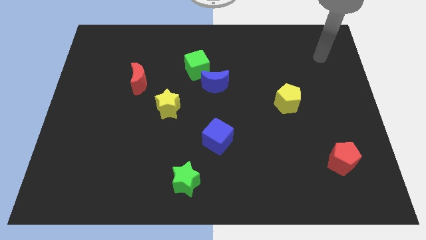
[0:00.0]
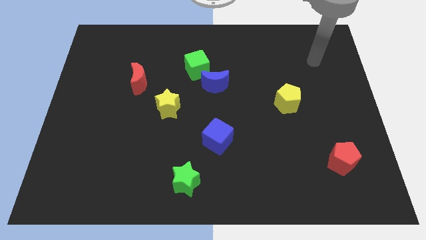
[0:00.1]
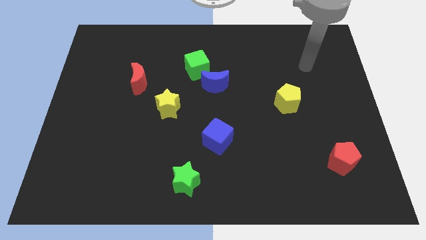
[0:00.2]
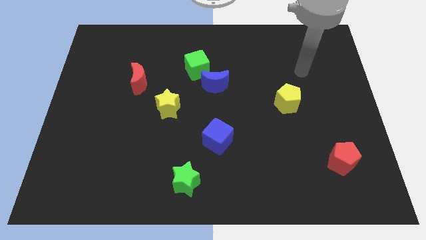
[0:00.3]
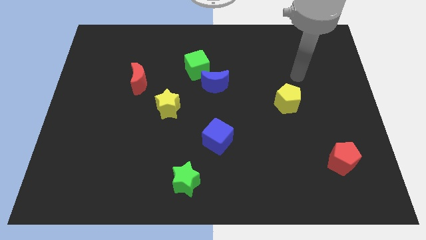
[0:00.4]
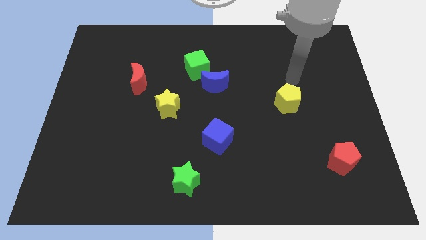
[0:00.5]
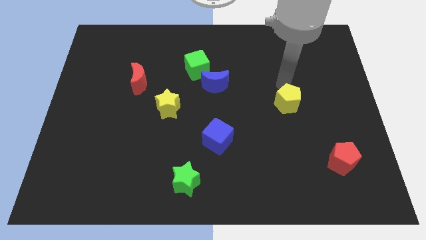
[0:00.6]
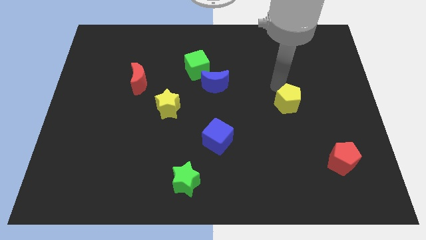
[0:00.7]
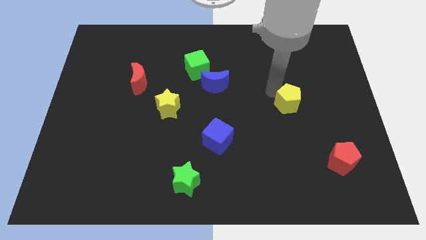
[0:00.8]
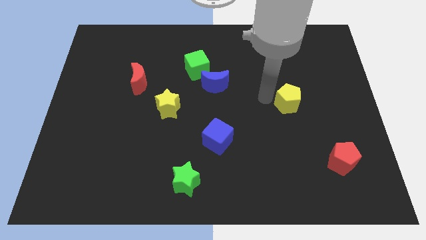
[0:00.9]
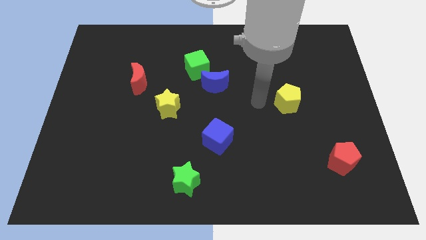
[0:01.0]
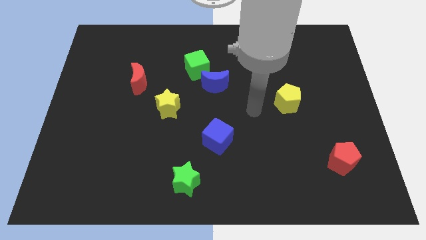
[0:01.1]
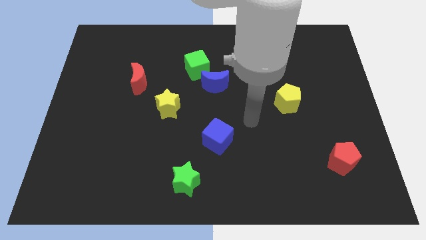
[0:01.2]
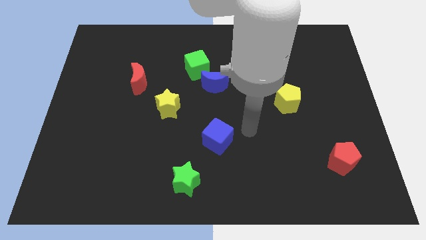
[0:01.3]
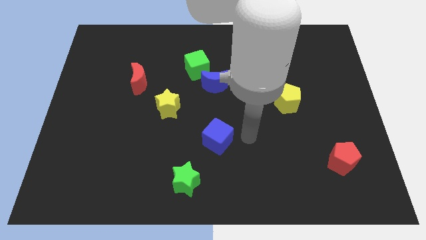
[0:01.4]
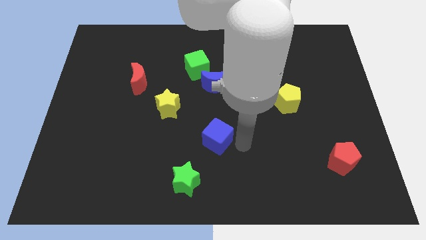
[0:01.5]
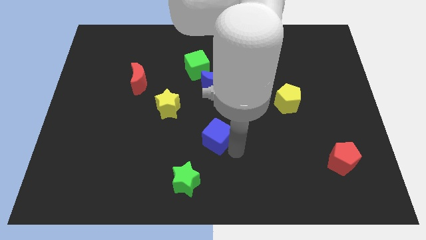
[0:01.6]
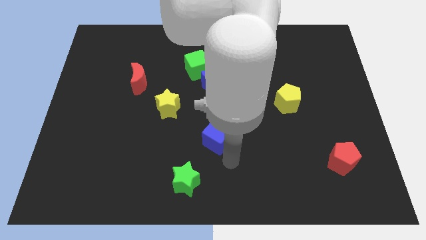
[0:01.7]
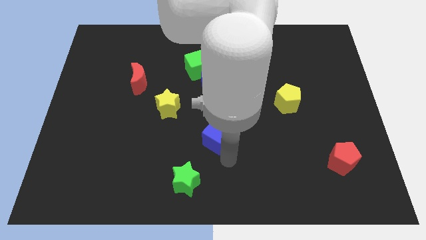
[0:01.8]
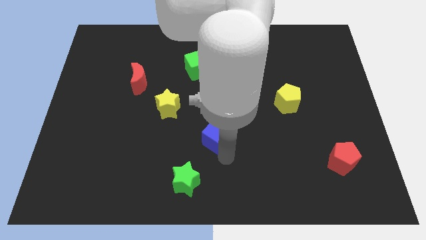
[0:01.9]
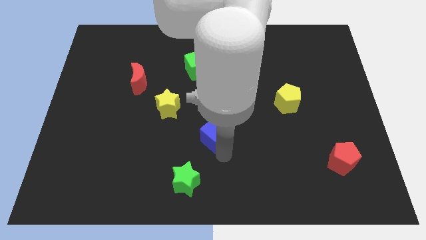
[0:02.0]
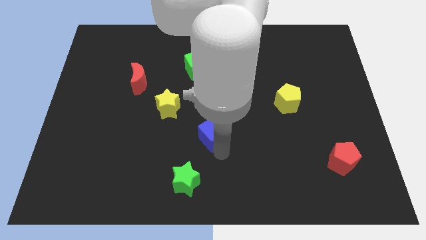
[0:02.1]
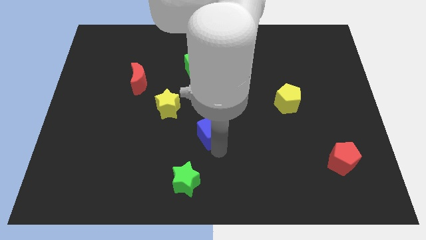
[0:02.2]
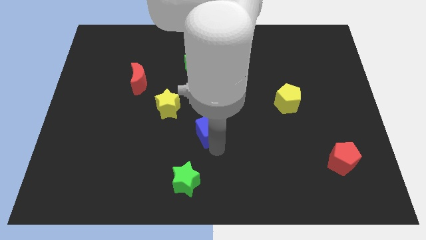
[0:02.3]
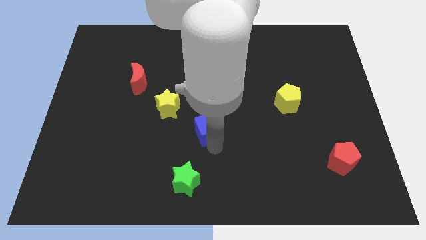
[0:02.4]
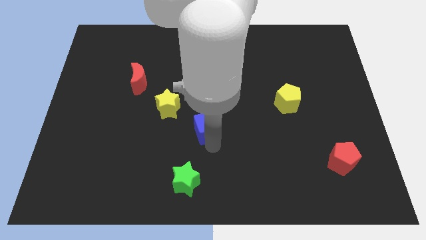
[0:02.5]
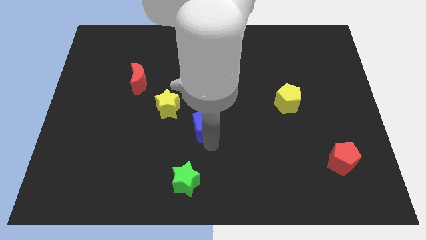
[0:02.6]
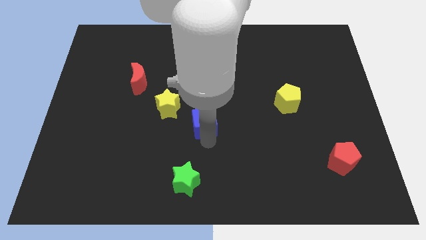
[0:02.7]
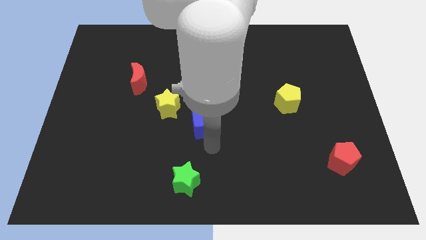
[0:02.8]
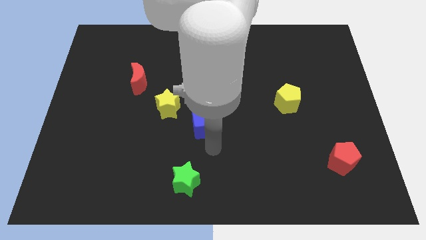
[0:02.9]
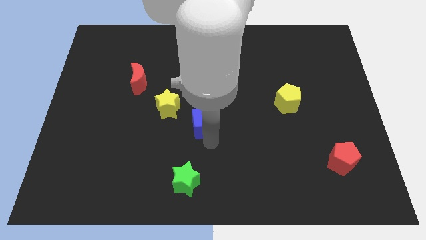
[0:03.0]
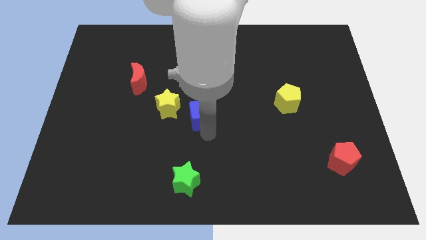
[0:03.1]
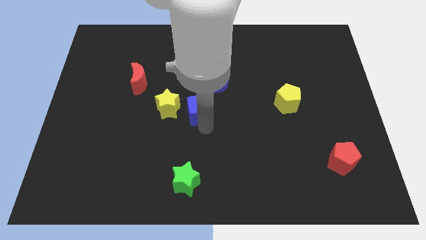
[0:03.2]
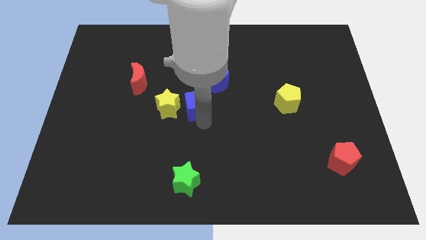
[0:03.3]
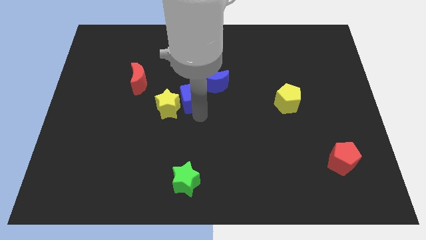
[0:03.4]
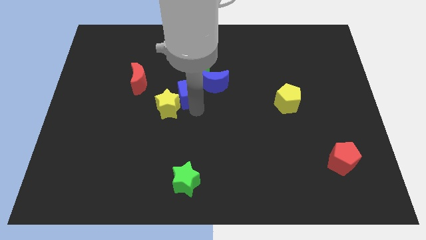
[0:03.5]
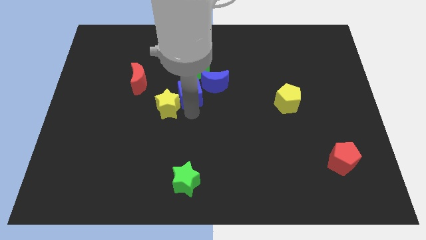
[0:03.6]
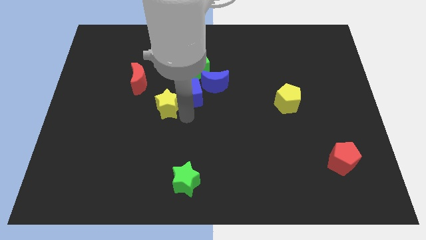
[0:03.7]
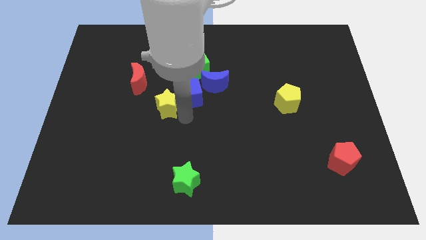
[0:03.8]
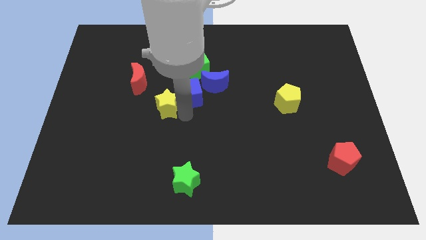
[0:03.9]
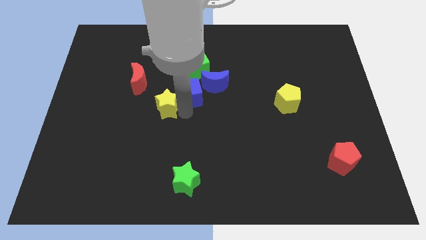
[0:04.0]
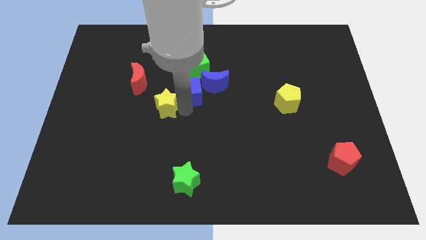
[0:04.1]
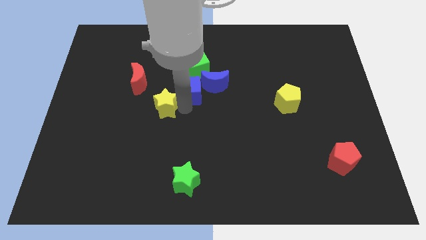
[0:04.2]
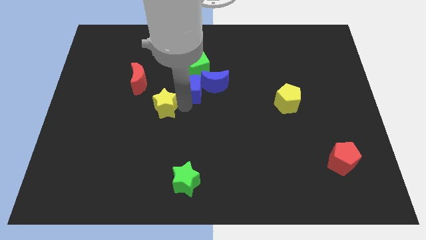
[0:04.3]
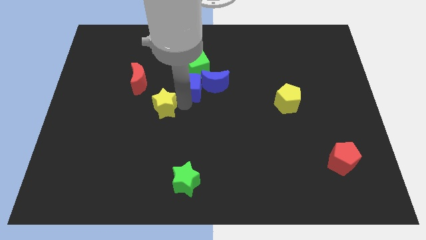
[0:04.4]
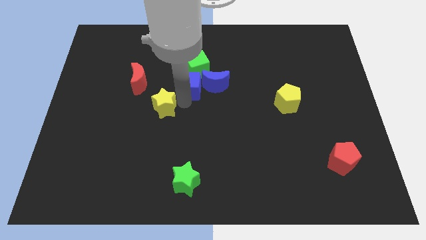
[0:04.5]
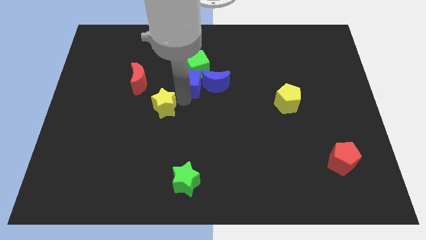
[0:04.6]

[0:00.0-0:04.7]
slide the blue cube next to the green cube

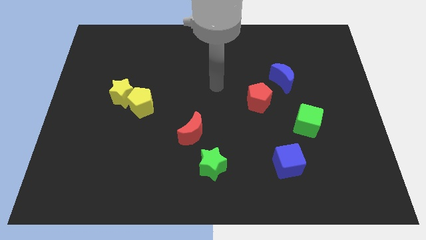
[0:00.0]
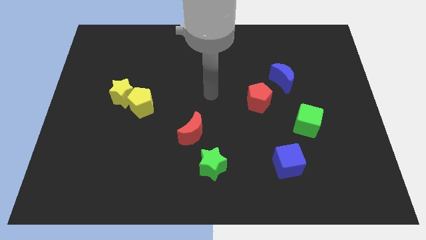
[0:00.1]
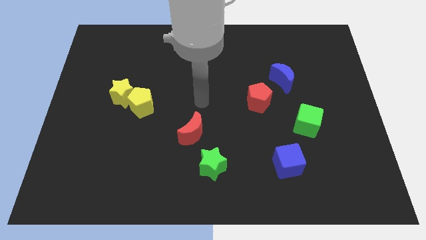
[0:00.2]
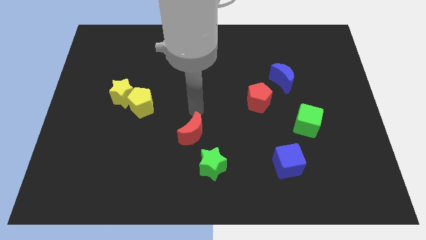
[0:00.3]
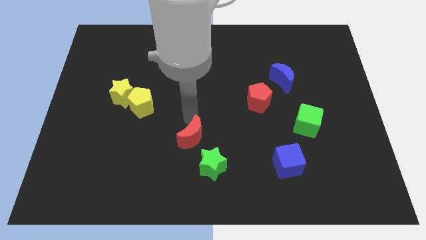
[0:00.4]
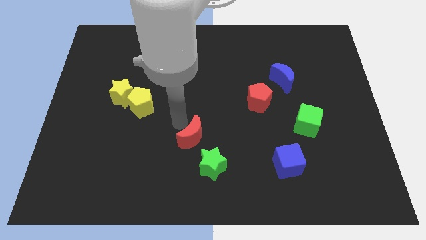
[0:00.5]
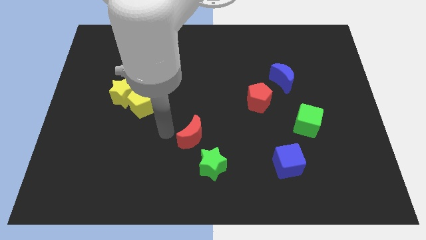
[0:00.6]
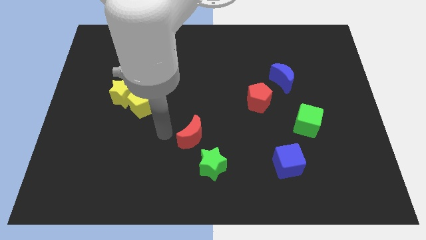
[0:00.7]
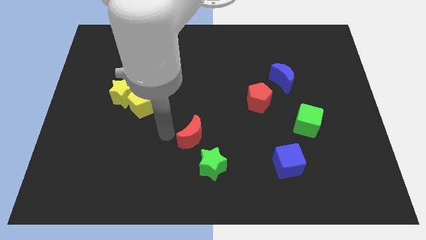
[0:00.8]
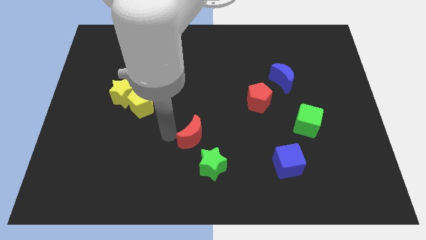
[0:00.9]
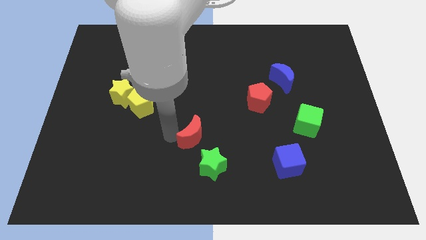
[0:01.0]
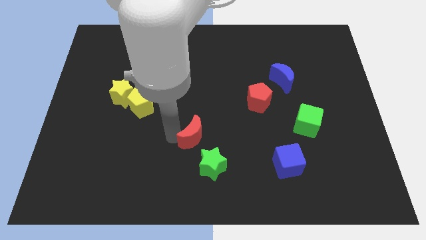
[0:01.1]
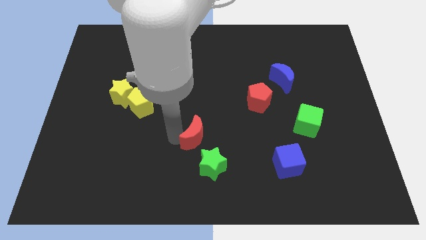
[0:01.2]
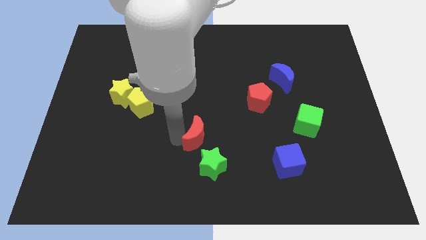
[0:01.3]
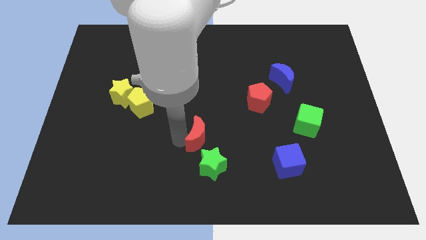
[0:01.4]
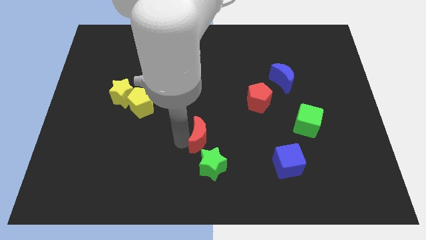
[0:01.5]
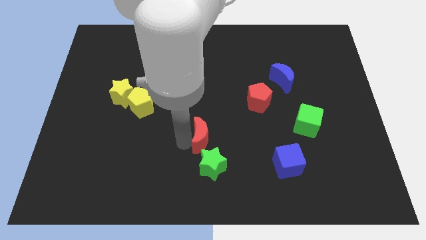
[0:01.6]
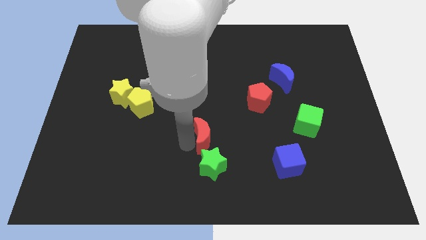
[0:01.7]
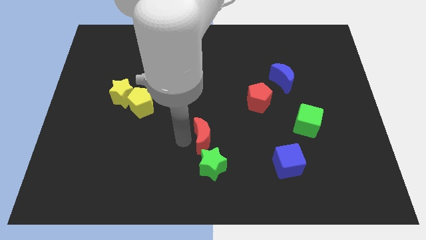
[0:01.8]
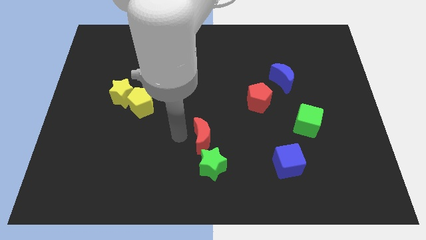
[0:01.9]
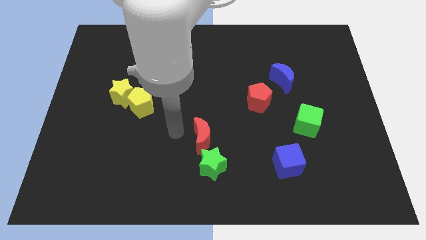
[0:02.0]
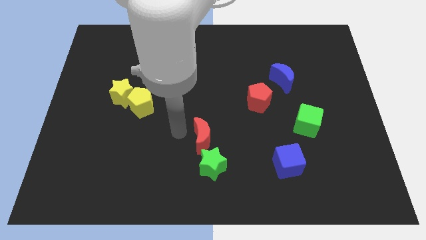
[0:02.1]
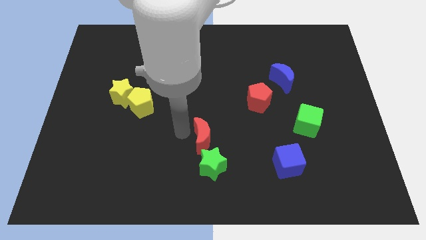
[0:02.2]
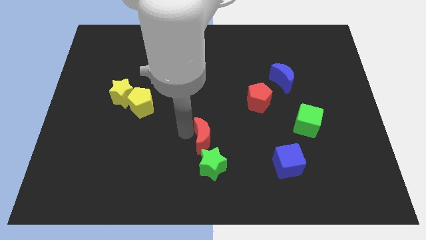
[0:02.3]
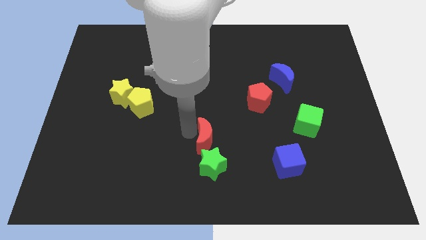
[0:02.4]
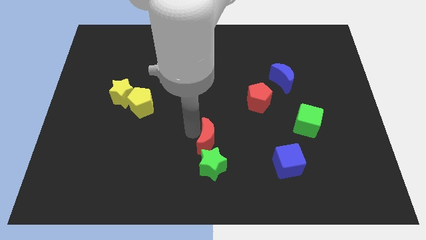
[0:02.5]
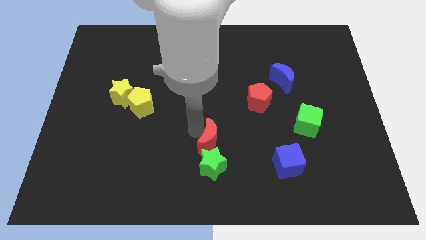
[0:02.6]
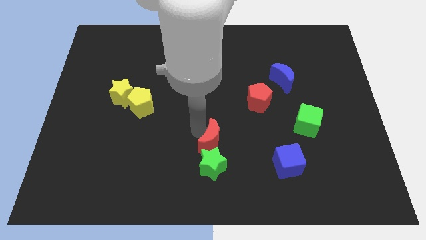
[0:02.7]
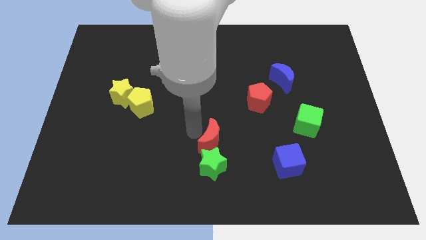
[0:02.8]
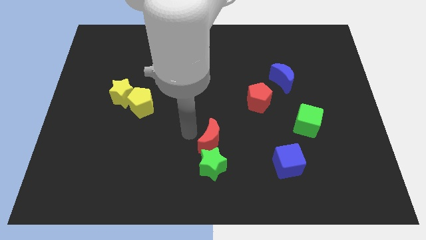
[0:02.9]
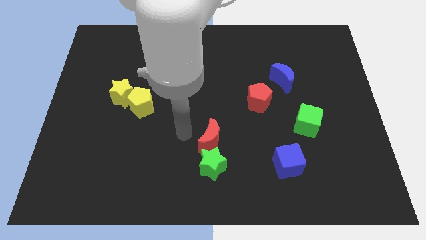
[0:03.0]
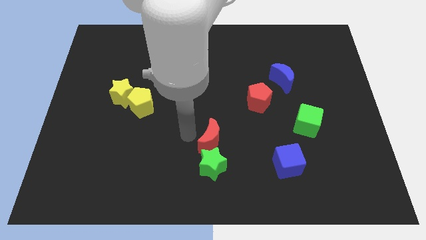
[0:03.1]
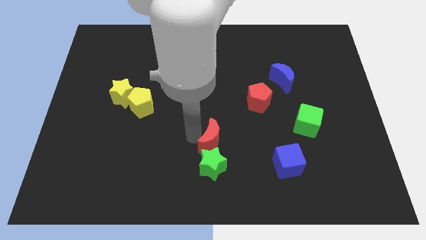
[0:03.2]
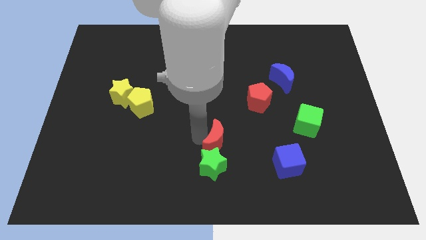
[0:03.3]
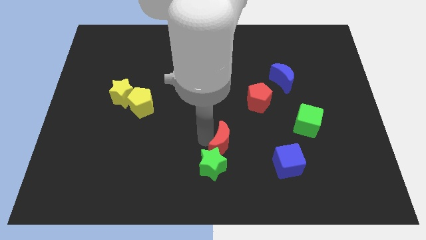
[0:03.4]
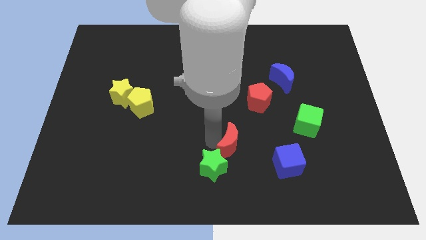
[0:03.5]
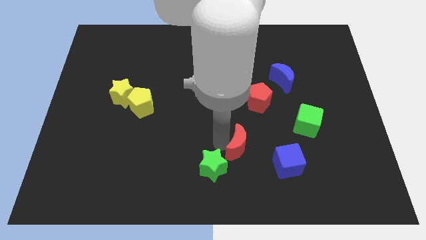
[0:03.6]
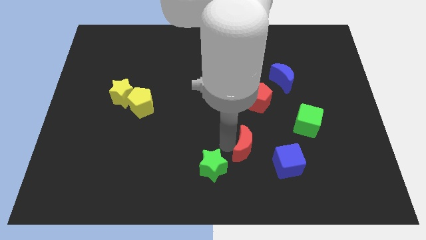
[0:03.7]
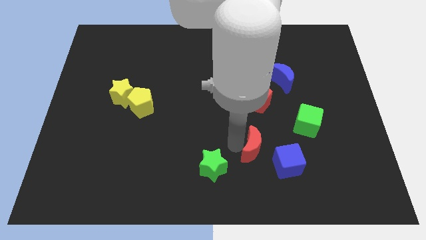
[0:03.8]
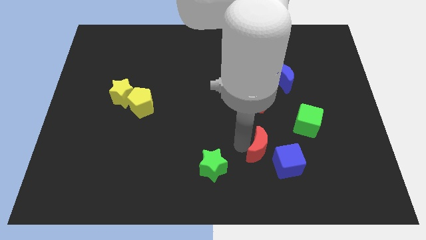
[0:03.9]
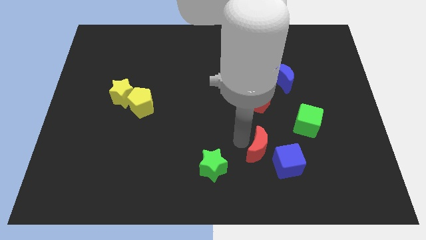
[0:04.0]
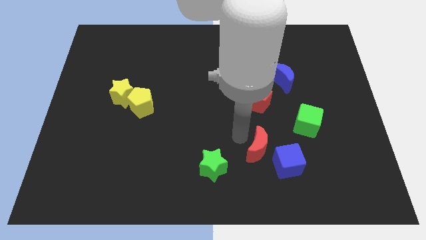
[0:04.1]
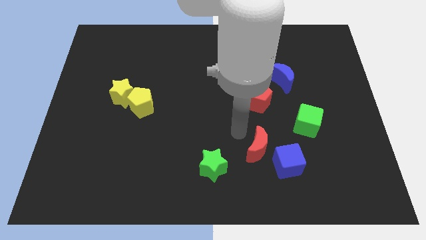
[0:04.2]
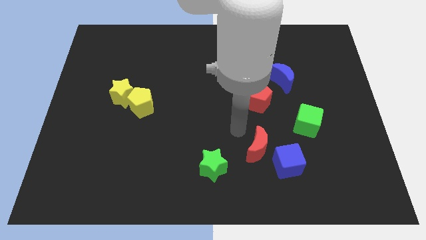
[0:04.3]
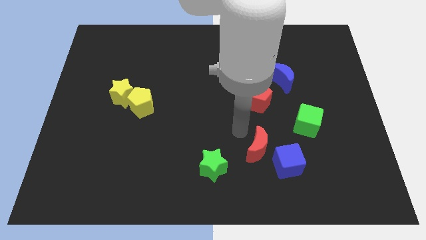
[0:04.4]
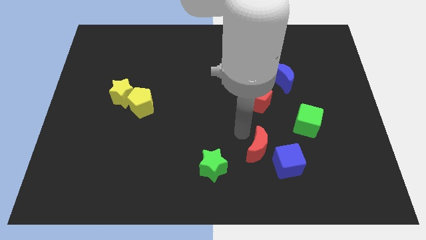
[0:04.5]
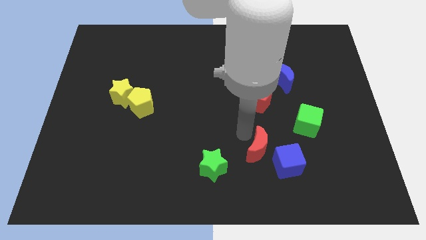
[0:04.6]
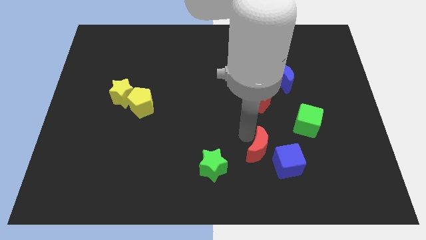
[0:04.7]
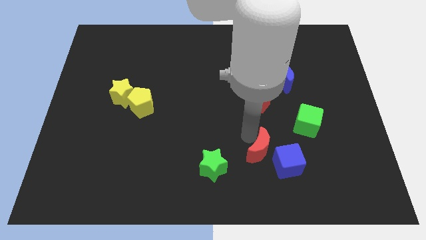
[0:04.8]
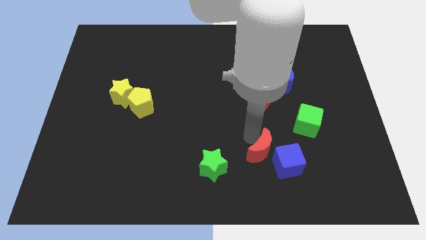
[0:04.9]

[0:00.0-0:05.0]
push the red moon towards the blue cube
